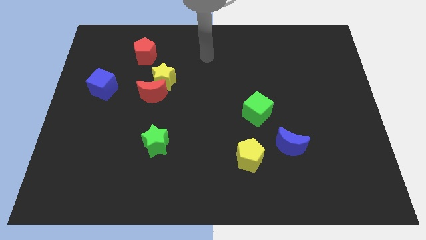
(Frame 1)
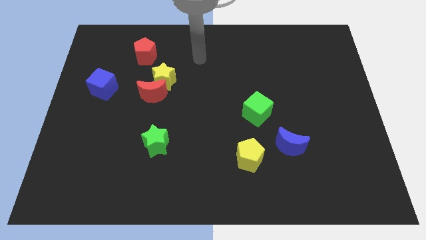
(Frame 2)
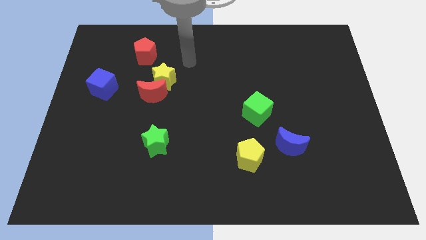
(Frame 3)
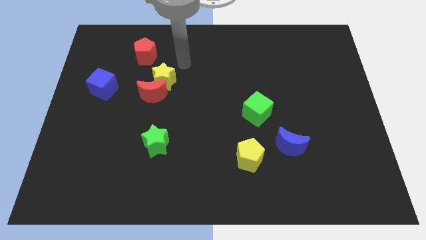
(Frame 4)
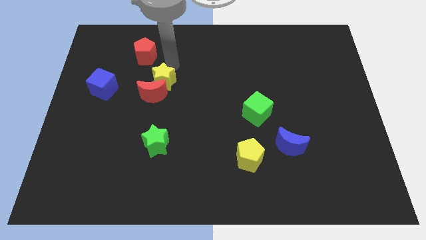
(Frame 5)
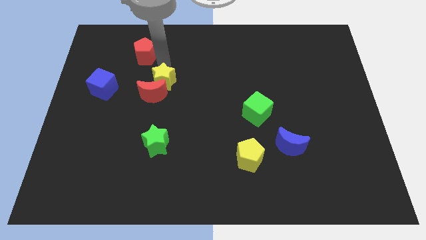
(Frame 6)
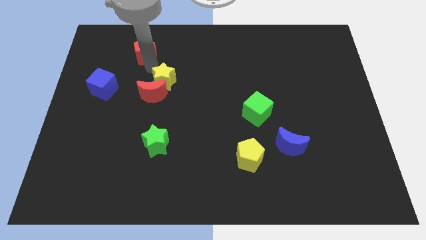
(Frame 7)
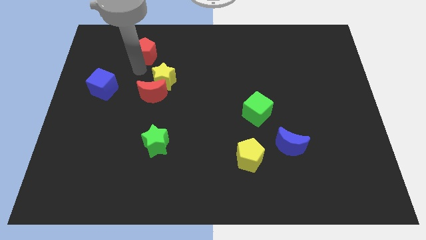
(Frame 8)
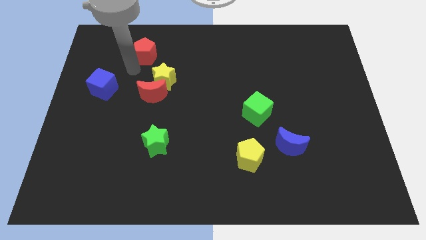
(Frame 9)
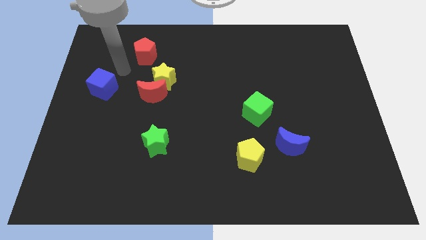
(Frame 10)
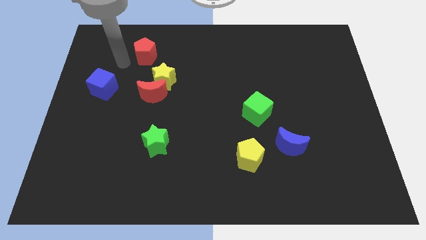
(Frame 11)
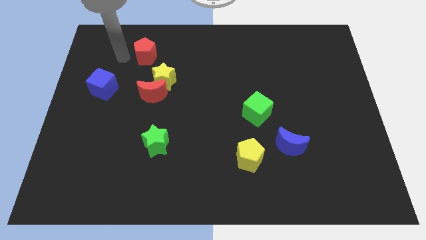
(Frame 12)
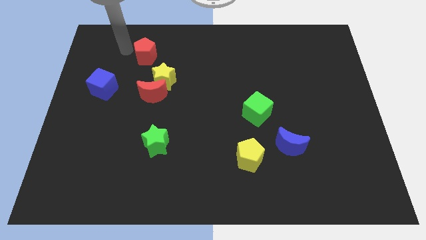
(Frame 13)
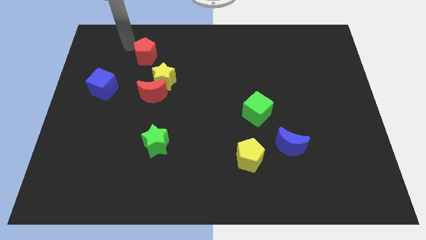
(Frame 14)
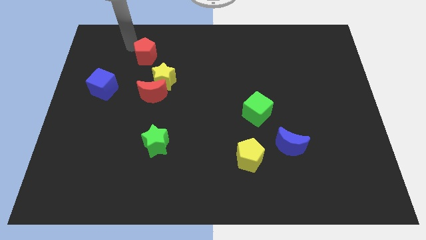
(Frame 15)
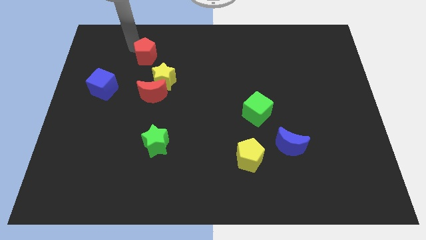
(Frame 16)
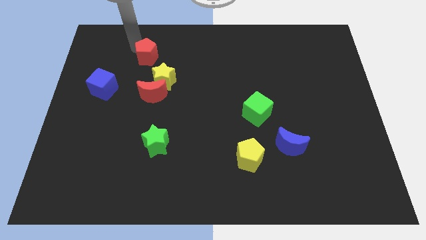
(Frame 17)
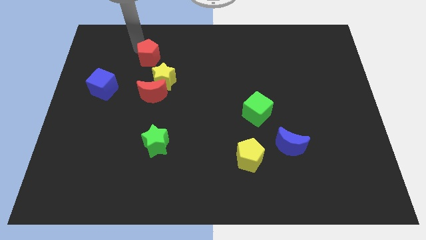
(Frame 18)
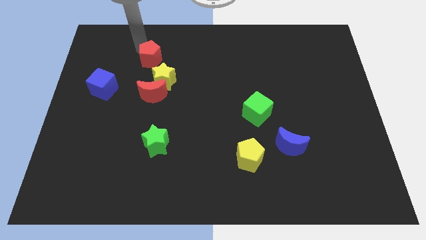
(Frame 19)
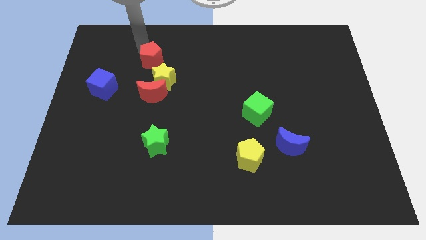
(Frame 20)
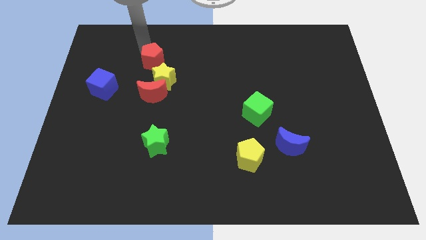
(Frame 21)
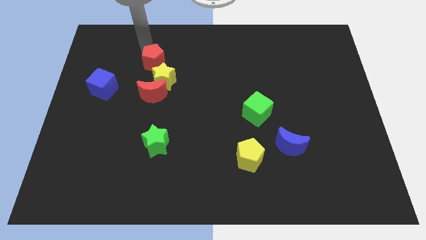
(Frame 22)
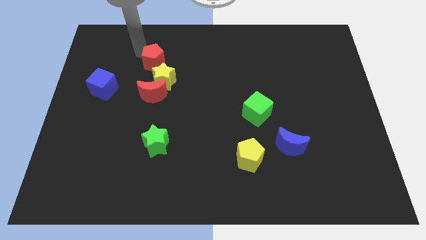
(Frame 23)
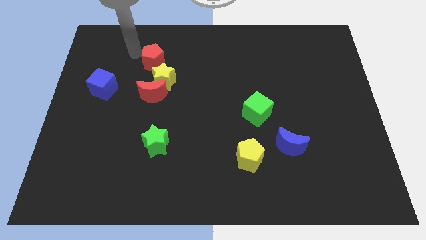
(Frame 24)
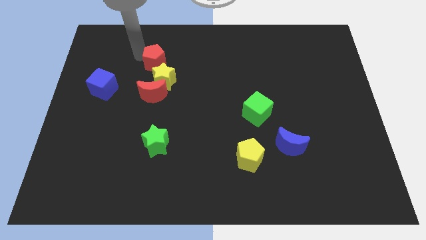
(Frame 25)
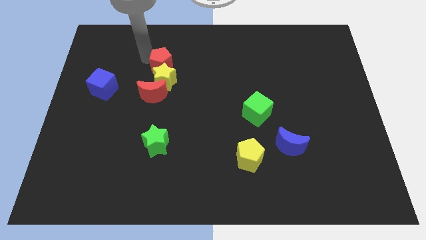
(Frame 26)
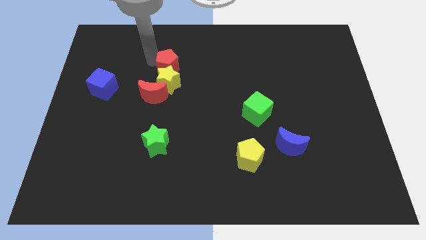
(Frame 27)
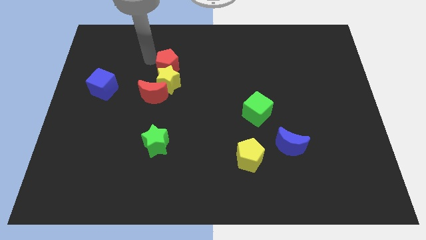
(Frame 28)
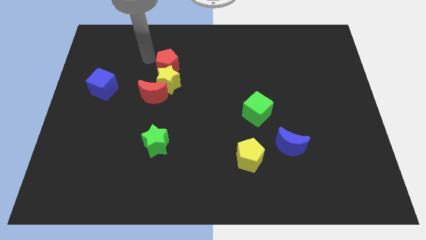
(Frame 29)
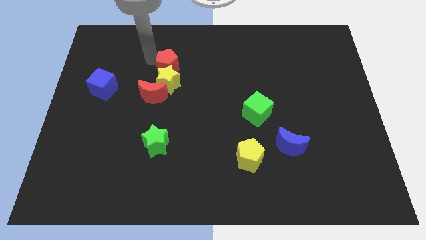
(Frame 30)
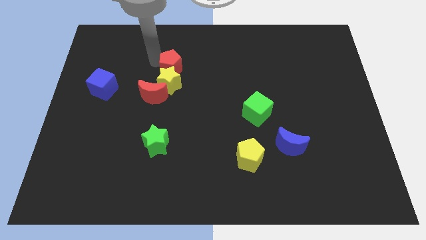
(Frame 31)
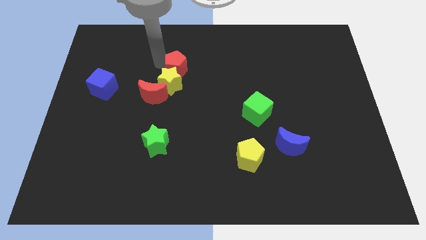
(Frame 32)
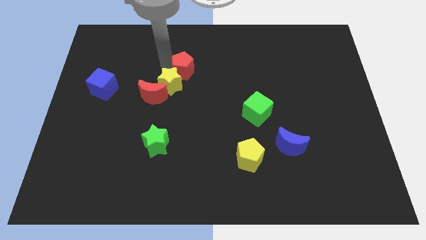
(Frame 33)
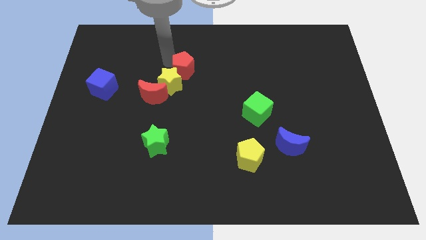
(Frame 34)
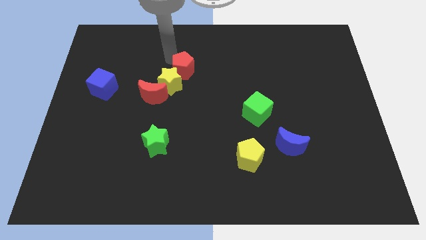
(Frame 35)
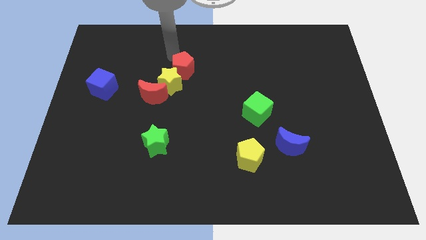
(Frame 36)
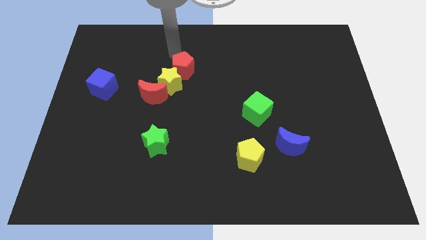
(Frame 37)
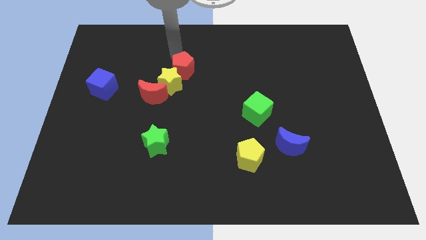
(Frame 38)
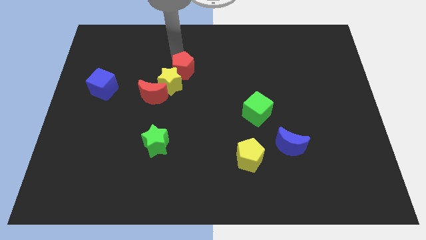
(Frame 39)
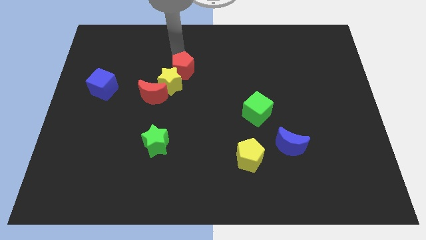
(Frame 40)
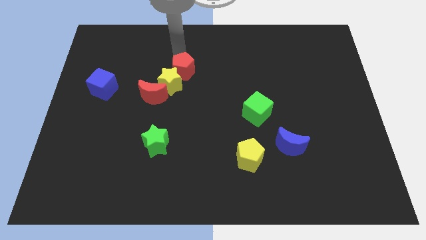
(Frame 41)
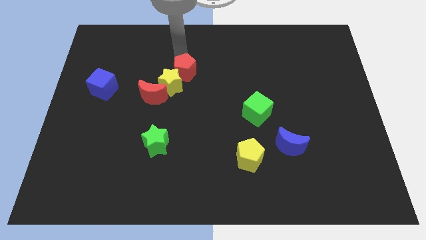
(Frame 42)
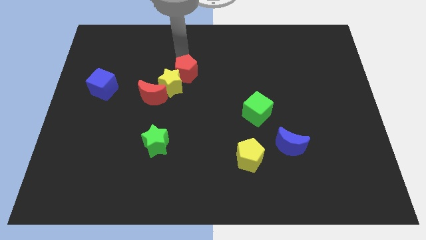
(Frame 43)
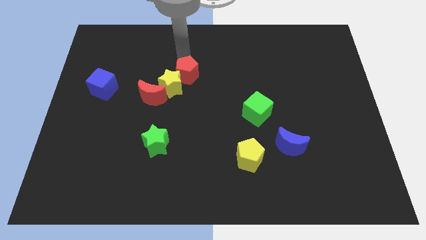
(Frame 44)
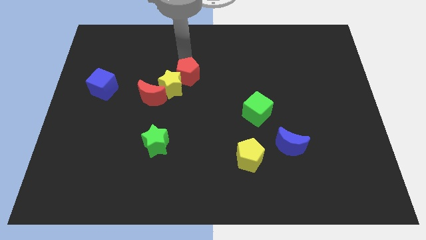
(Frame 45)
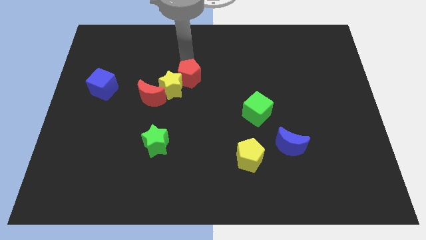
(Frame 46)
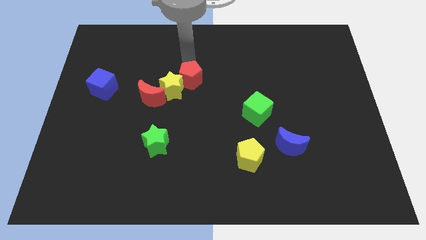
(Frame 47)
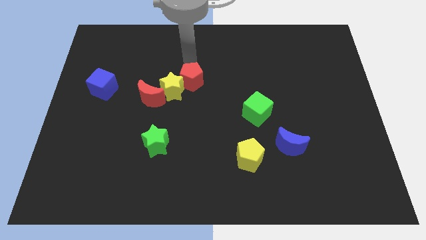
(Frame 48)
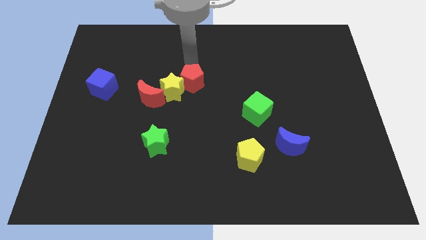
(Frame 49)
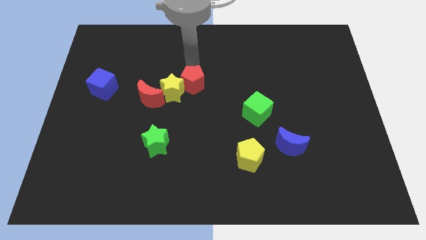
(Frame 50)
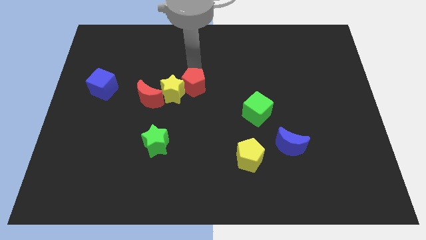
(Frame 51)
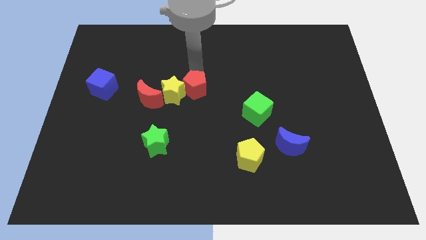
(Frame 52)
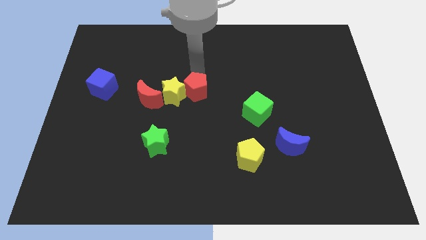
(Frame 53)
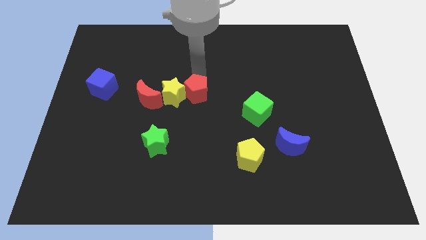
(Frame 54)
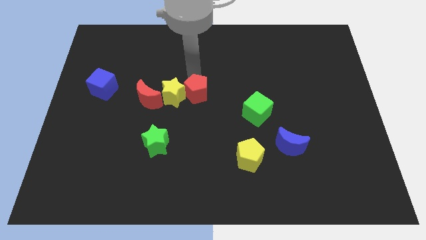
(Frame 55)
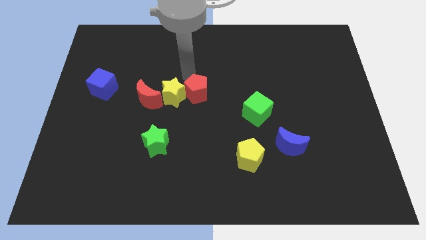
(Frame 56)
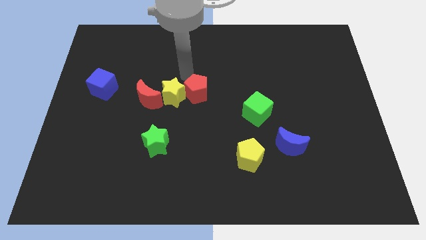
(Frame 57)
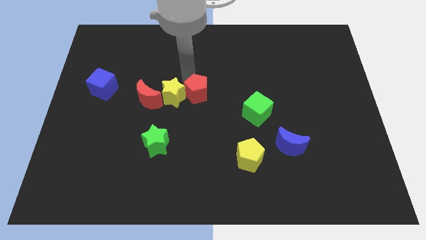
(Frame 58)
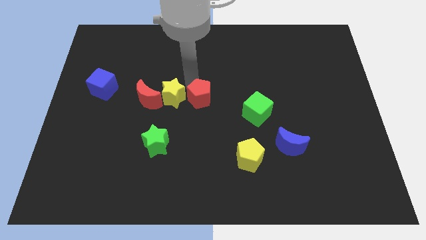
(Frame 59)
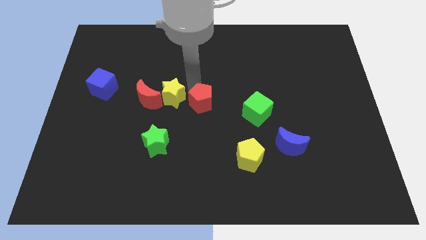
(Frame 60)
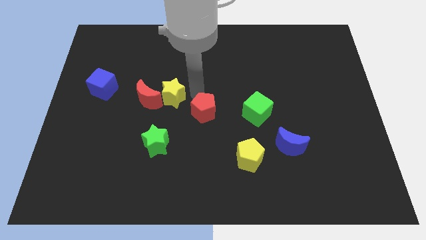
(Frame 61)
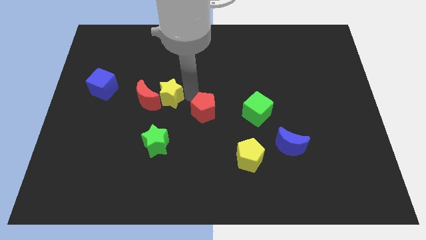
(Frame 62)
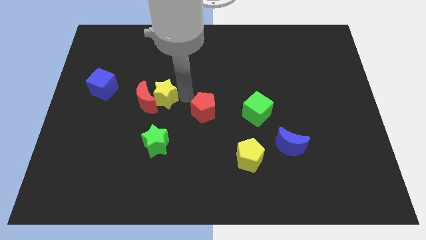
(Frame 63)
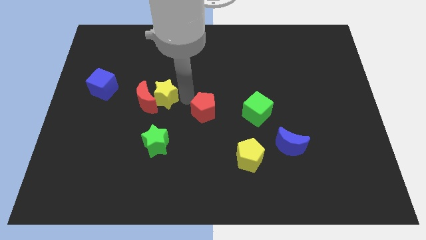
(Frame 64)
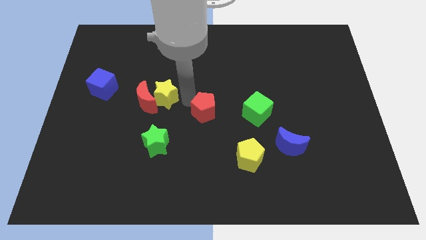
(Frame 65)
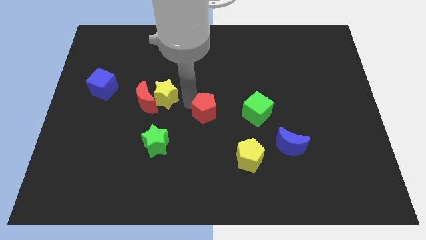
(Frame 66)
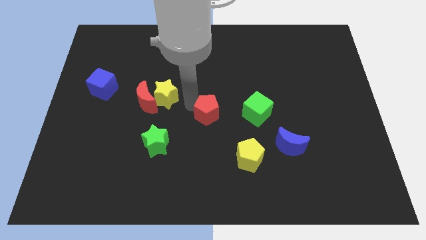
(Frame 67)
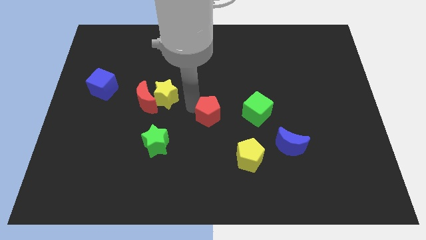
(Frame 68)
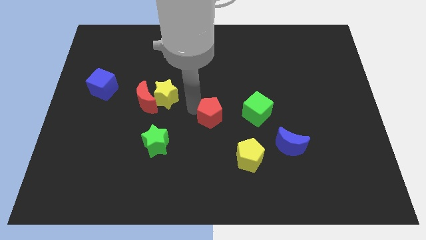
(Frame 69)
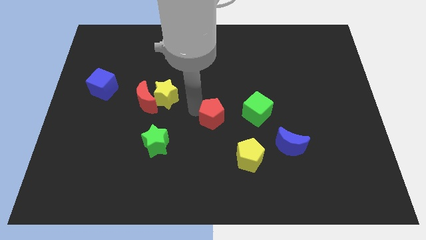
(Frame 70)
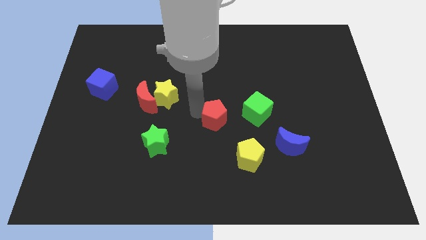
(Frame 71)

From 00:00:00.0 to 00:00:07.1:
put the red pentagon to the top left side of the yellow pentagon
